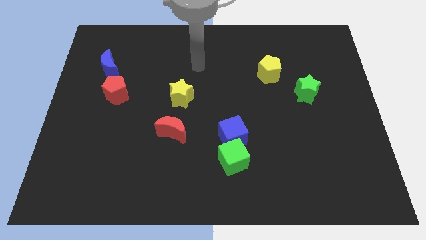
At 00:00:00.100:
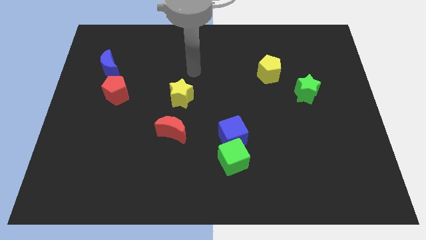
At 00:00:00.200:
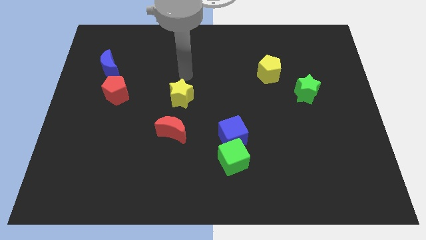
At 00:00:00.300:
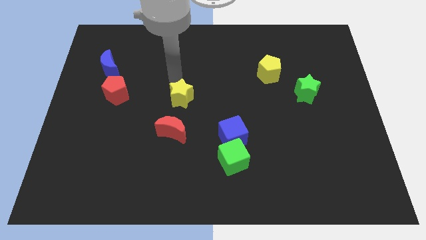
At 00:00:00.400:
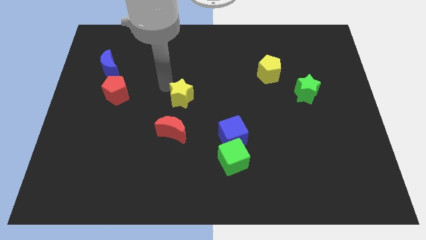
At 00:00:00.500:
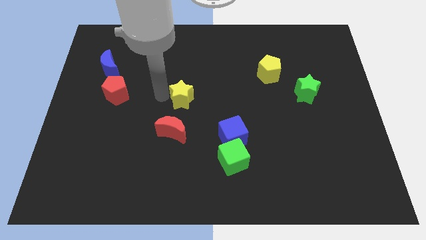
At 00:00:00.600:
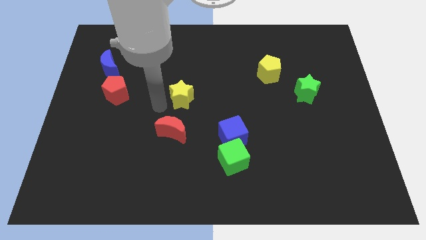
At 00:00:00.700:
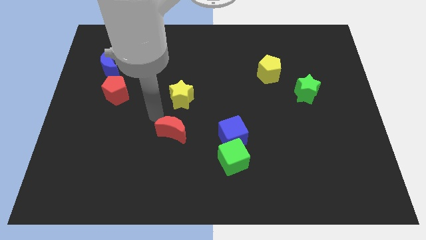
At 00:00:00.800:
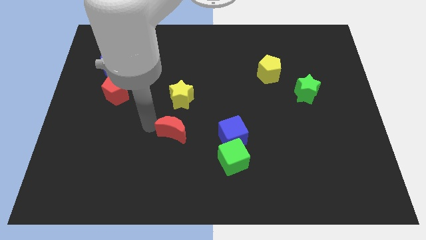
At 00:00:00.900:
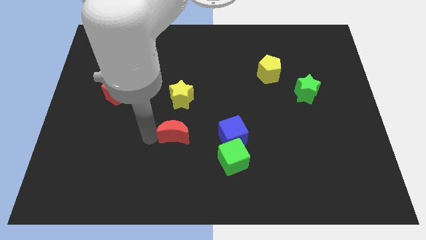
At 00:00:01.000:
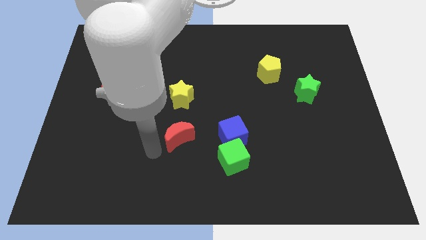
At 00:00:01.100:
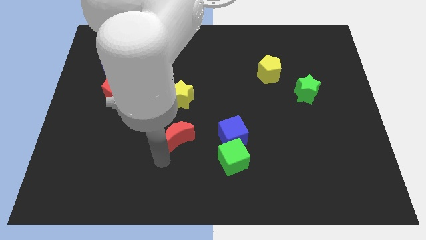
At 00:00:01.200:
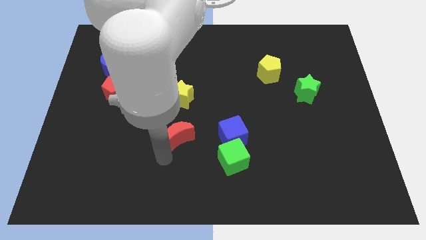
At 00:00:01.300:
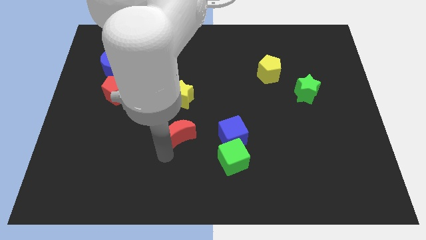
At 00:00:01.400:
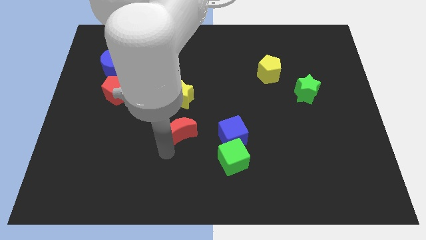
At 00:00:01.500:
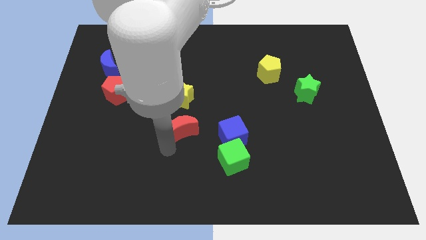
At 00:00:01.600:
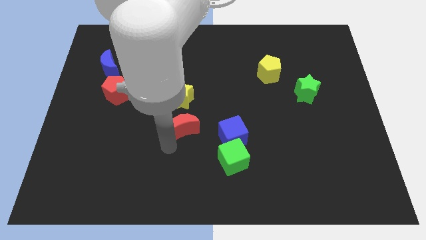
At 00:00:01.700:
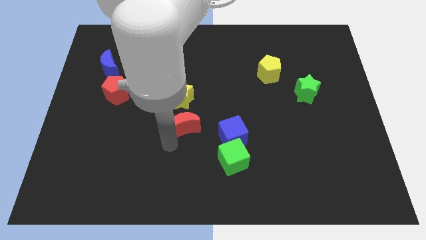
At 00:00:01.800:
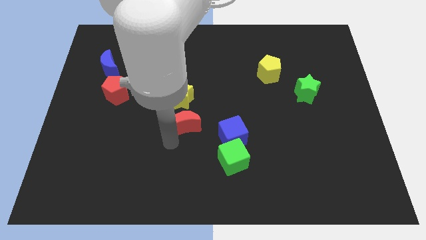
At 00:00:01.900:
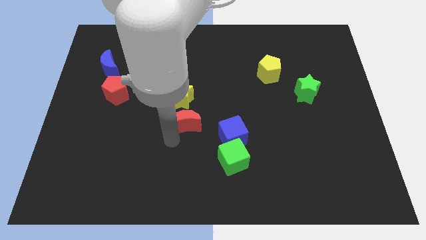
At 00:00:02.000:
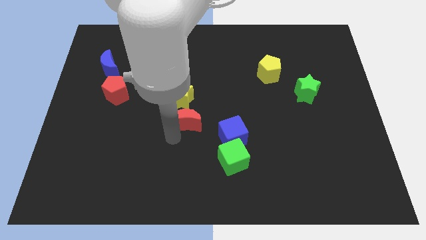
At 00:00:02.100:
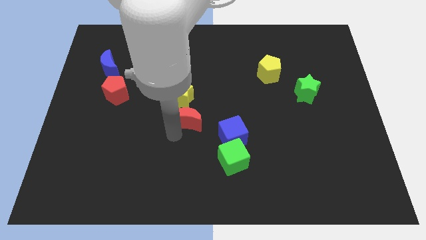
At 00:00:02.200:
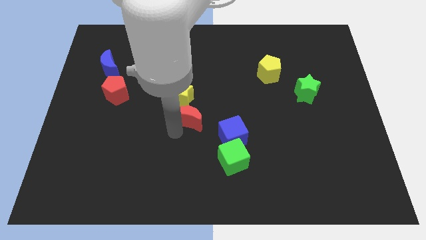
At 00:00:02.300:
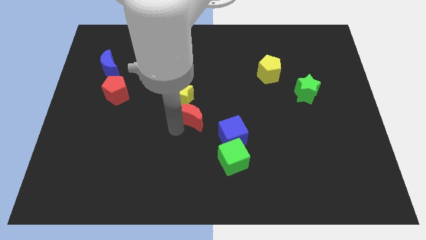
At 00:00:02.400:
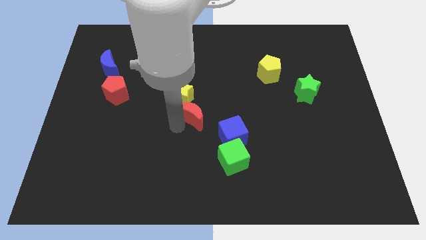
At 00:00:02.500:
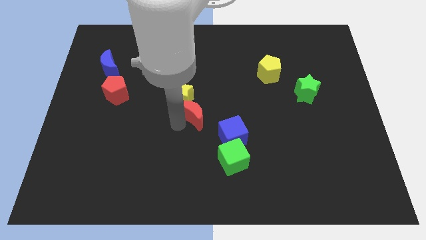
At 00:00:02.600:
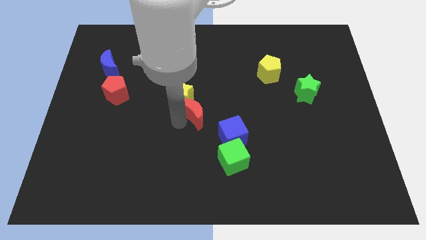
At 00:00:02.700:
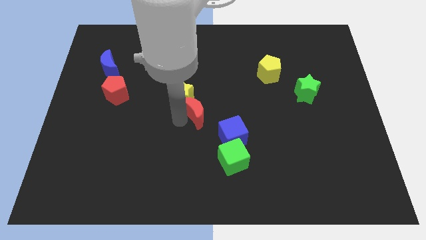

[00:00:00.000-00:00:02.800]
slide the red moon a little up and right diagonally

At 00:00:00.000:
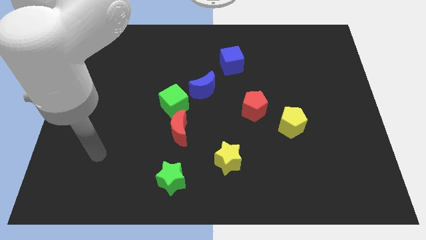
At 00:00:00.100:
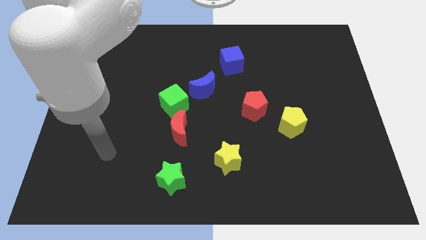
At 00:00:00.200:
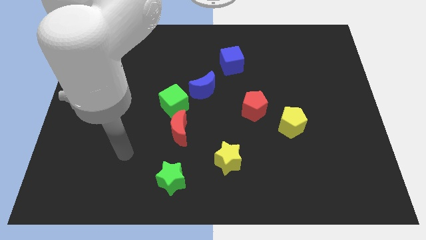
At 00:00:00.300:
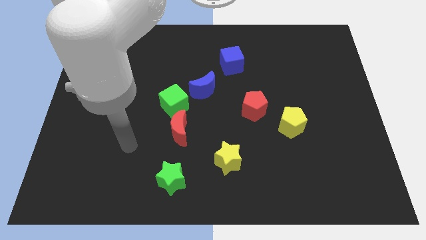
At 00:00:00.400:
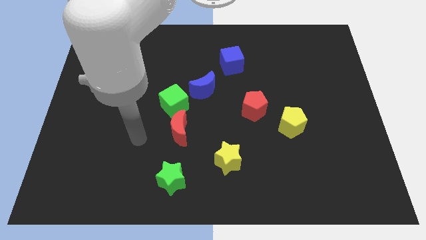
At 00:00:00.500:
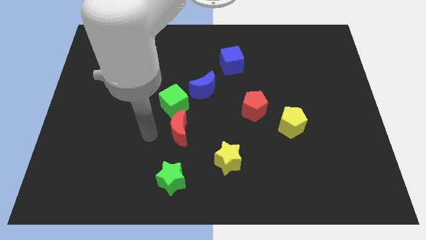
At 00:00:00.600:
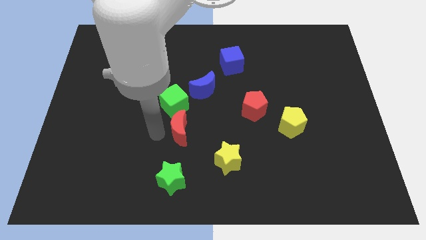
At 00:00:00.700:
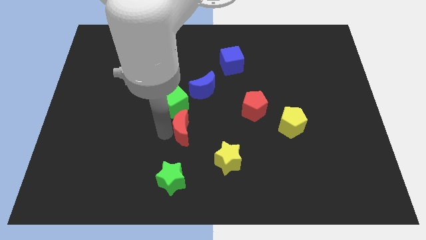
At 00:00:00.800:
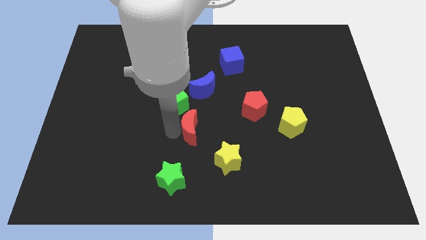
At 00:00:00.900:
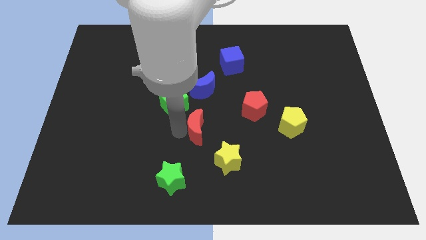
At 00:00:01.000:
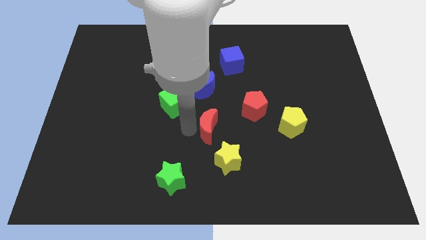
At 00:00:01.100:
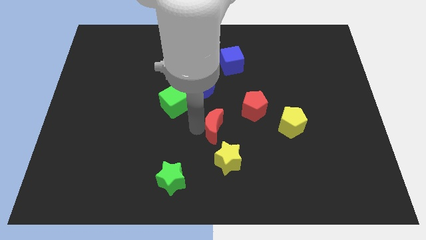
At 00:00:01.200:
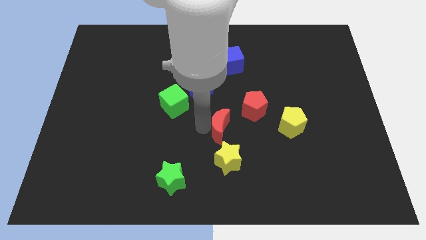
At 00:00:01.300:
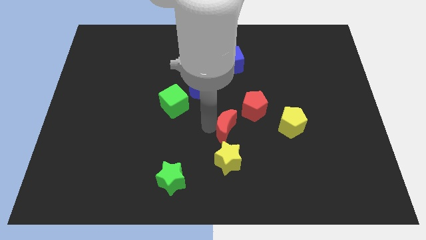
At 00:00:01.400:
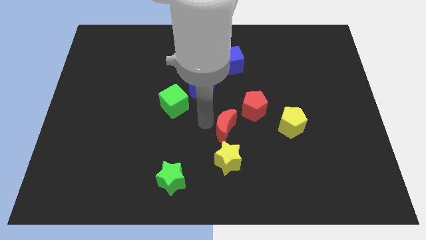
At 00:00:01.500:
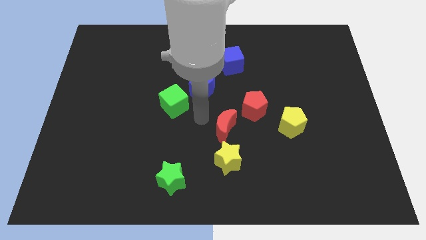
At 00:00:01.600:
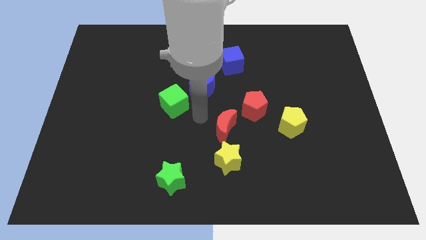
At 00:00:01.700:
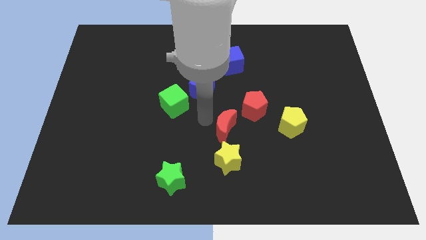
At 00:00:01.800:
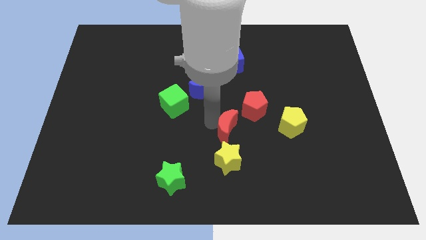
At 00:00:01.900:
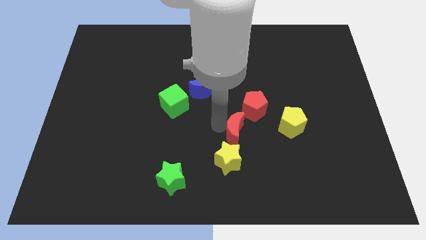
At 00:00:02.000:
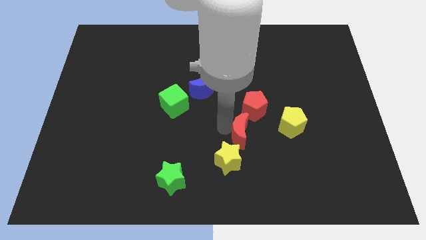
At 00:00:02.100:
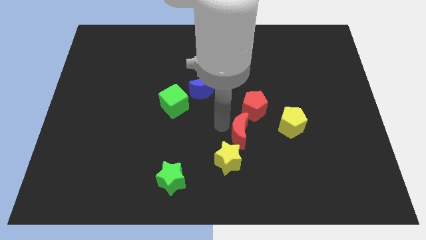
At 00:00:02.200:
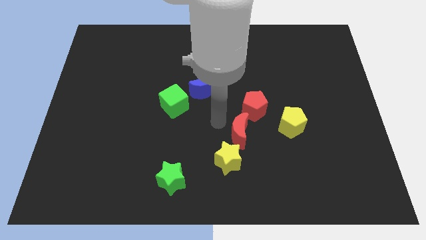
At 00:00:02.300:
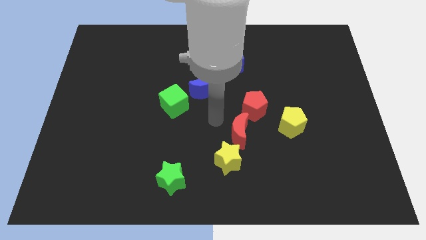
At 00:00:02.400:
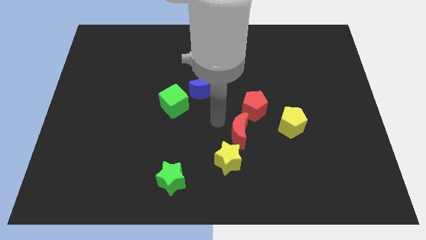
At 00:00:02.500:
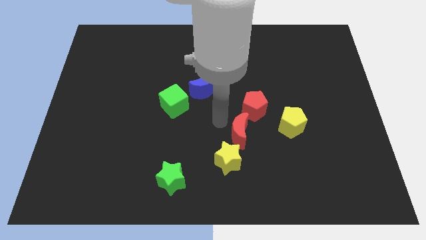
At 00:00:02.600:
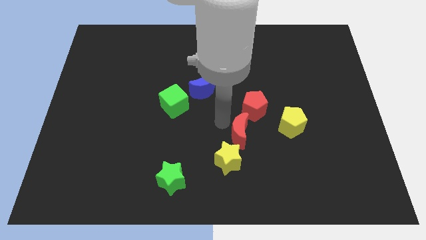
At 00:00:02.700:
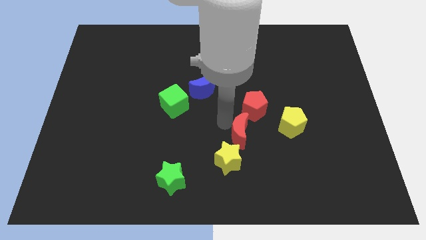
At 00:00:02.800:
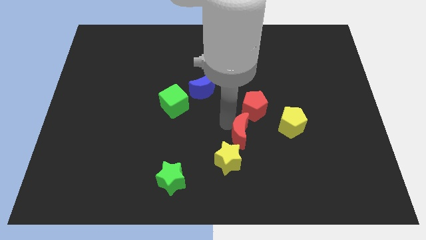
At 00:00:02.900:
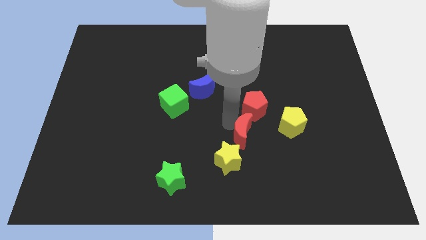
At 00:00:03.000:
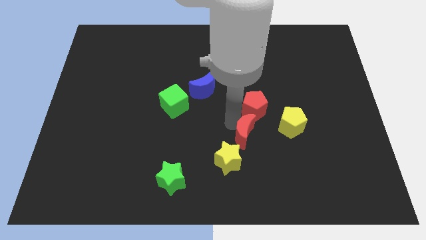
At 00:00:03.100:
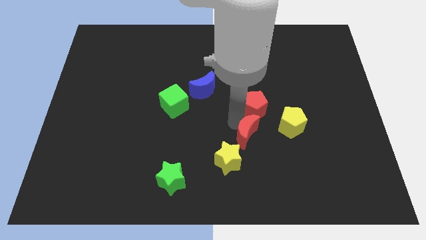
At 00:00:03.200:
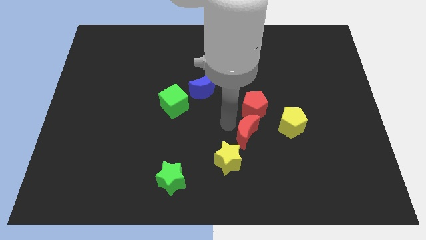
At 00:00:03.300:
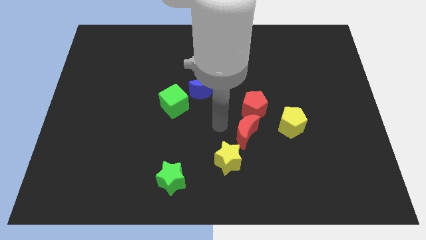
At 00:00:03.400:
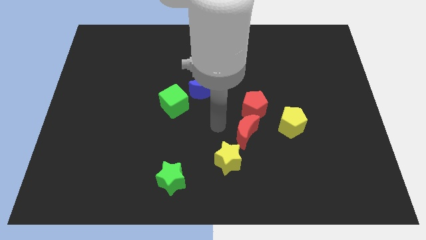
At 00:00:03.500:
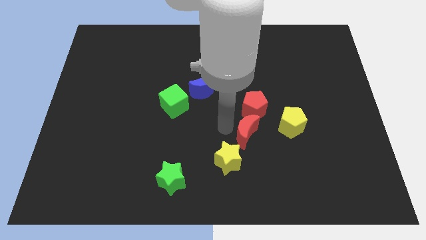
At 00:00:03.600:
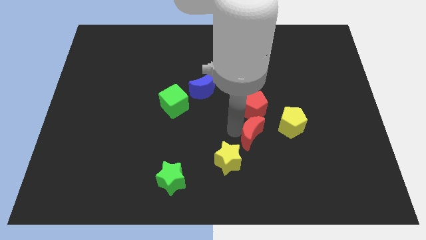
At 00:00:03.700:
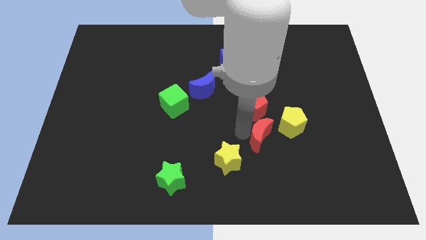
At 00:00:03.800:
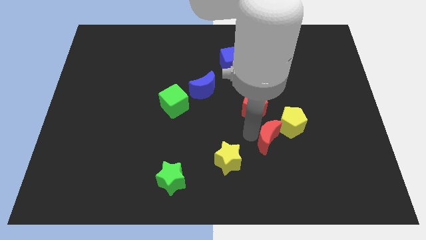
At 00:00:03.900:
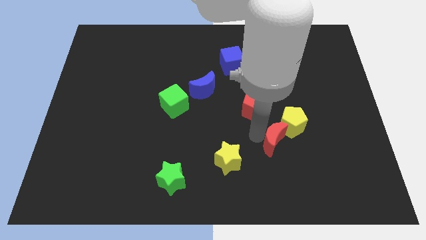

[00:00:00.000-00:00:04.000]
push the red moon right

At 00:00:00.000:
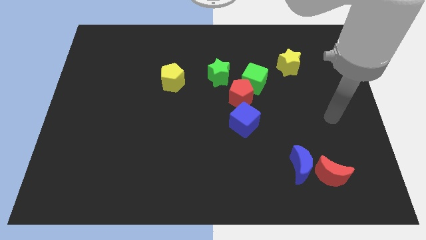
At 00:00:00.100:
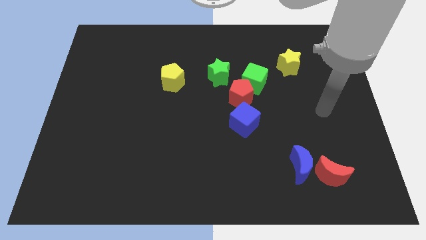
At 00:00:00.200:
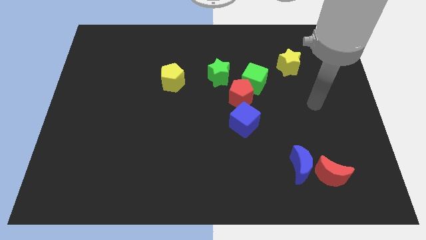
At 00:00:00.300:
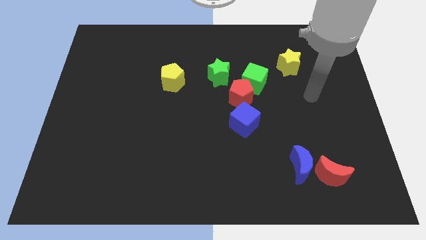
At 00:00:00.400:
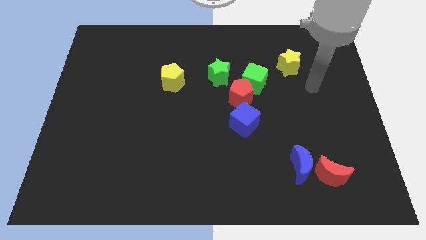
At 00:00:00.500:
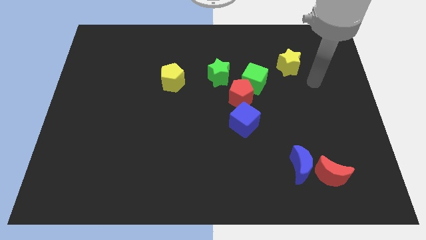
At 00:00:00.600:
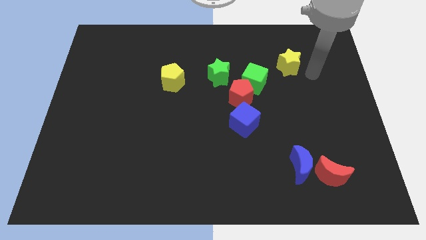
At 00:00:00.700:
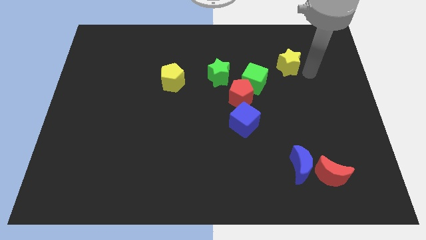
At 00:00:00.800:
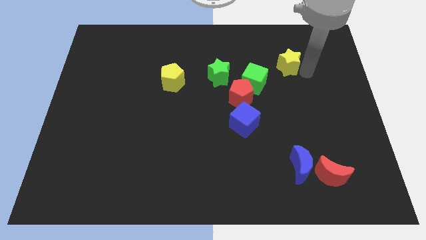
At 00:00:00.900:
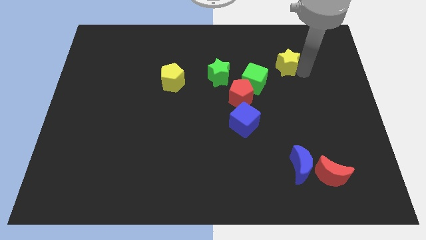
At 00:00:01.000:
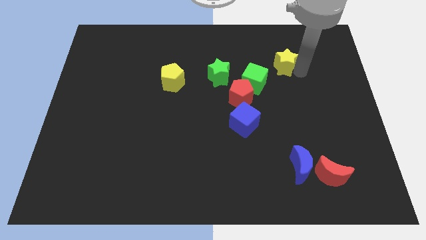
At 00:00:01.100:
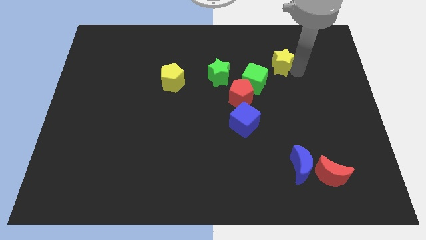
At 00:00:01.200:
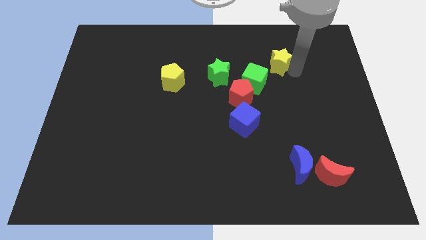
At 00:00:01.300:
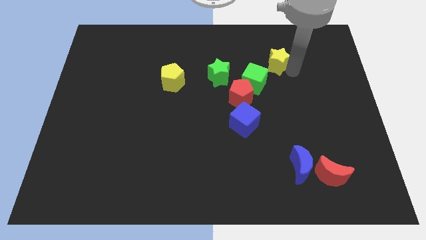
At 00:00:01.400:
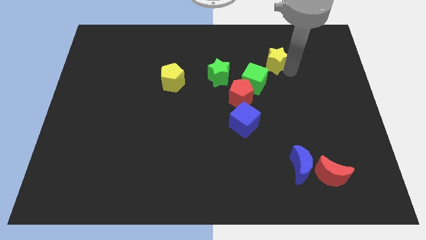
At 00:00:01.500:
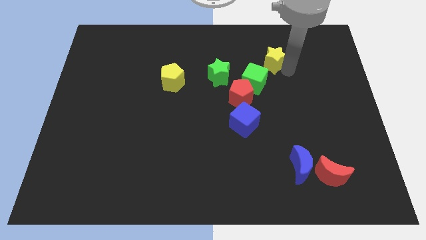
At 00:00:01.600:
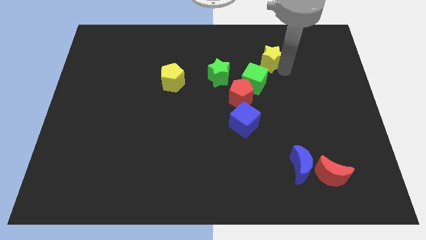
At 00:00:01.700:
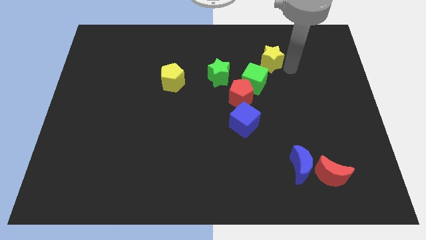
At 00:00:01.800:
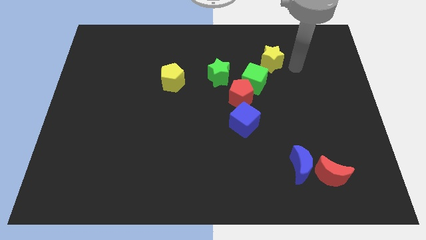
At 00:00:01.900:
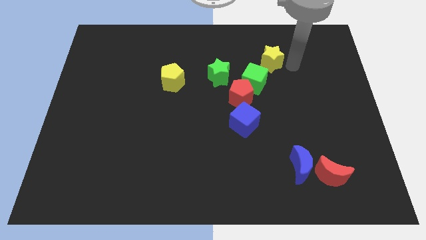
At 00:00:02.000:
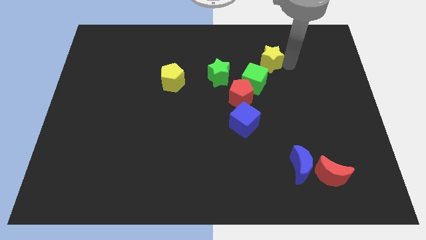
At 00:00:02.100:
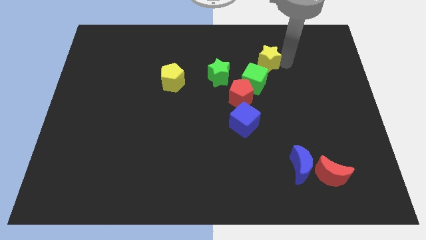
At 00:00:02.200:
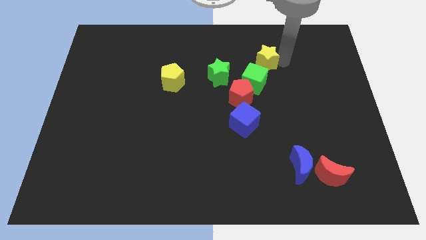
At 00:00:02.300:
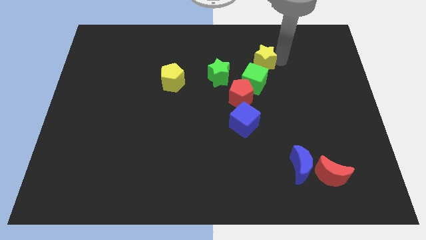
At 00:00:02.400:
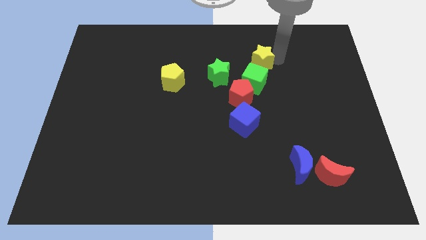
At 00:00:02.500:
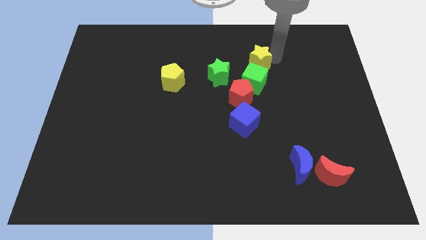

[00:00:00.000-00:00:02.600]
push the yellow star a little bit left
